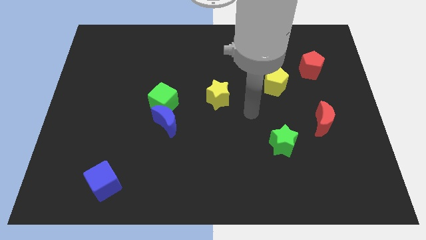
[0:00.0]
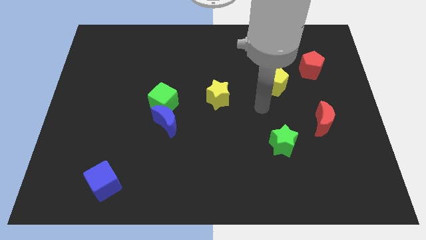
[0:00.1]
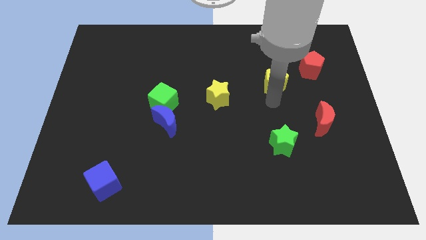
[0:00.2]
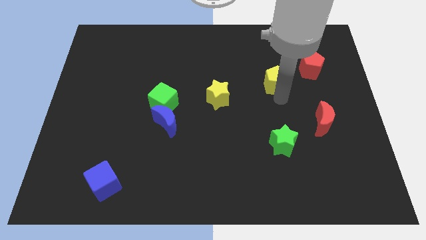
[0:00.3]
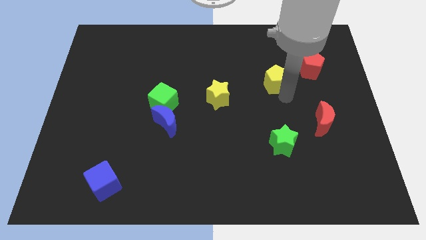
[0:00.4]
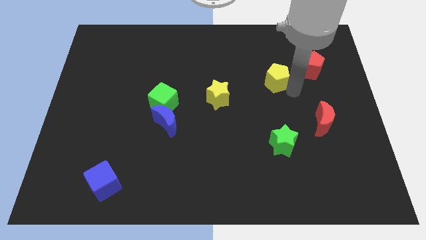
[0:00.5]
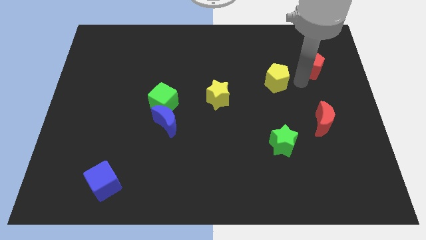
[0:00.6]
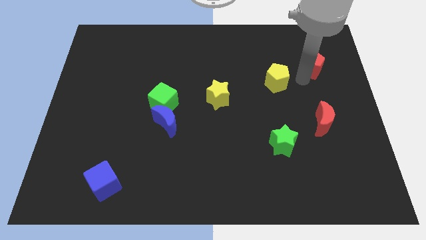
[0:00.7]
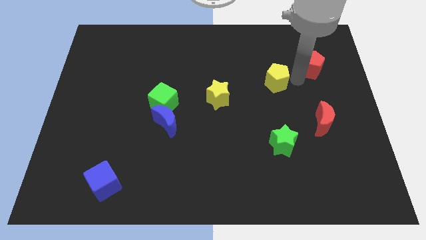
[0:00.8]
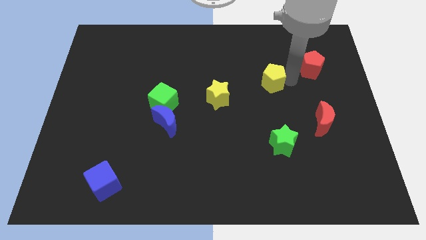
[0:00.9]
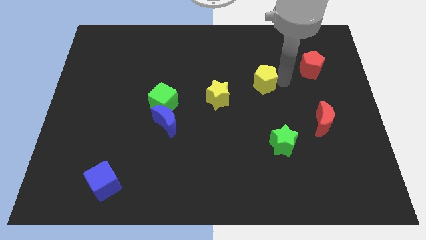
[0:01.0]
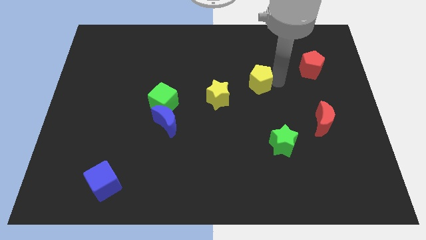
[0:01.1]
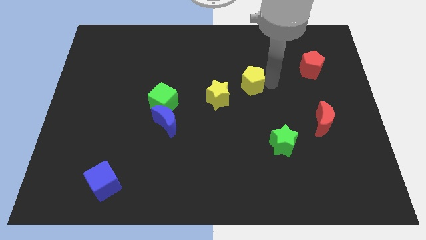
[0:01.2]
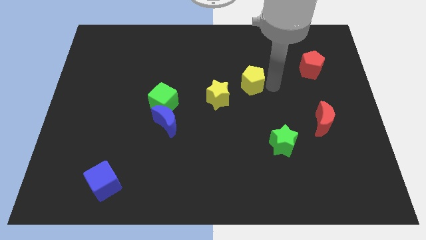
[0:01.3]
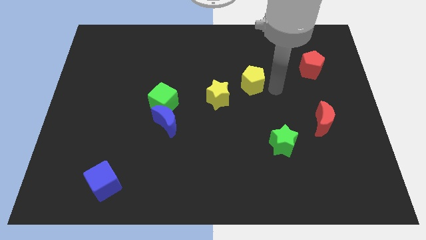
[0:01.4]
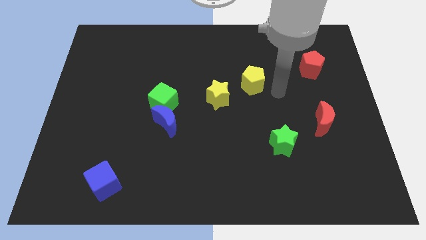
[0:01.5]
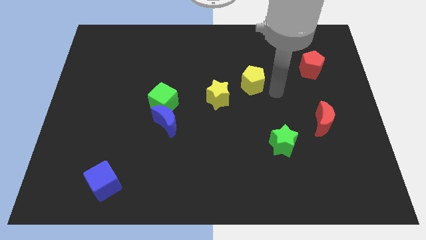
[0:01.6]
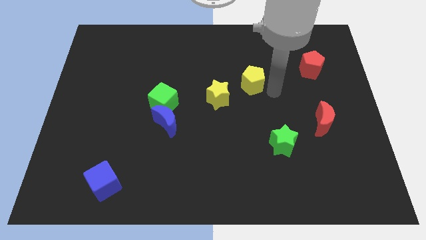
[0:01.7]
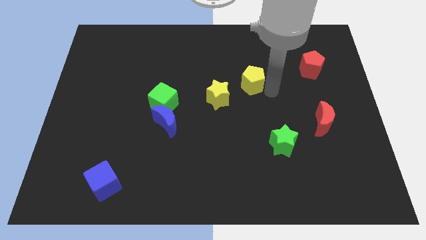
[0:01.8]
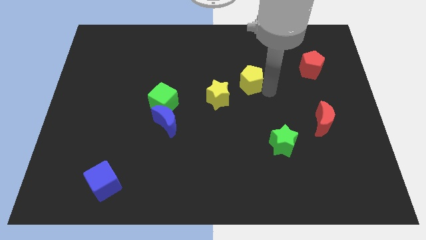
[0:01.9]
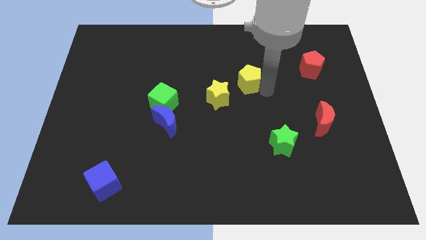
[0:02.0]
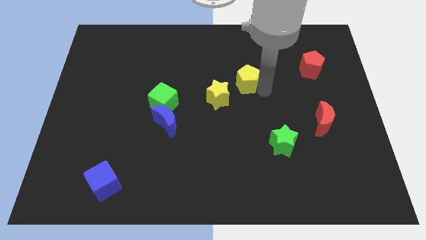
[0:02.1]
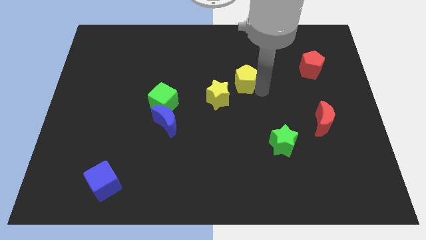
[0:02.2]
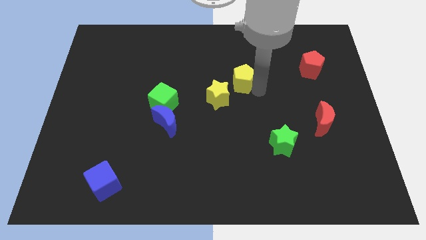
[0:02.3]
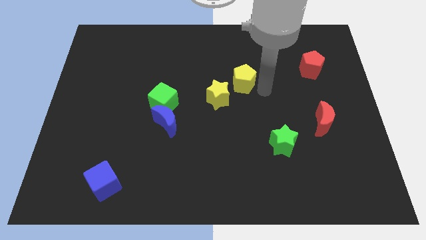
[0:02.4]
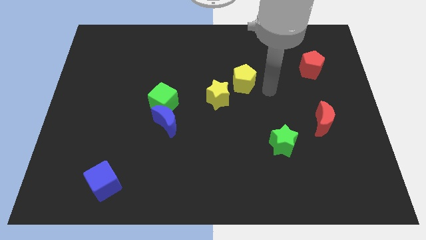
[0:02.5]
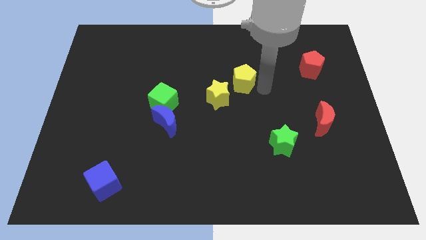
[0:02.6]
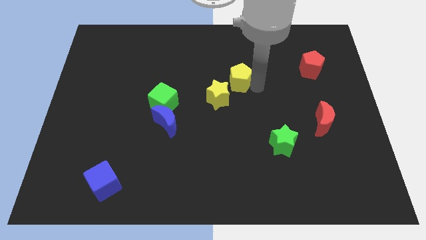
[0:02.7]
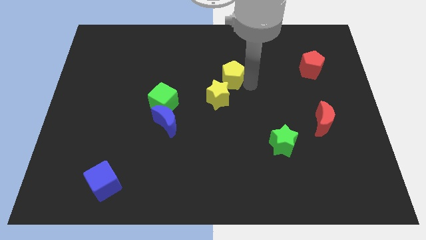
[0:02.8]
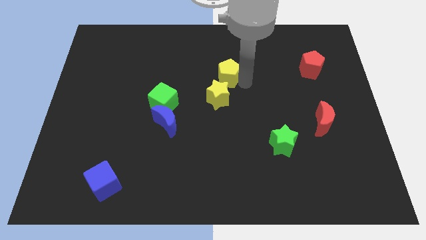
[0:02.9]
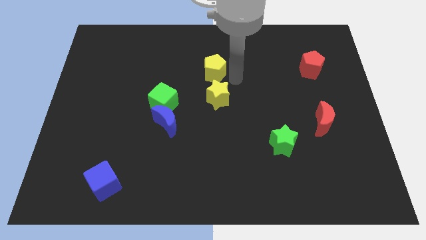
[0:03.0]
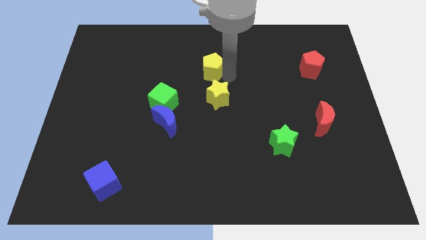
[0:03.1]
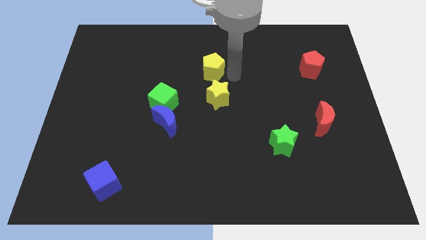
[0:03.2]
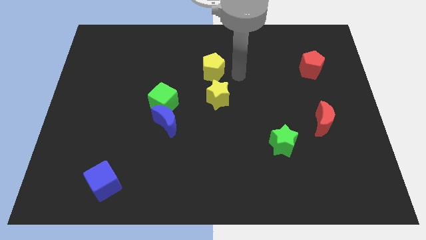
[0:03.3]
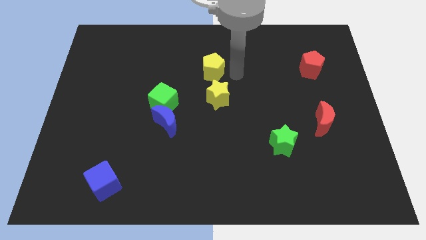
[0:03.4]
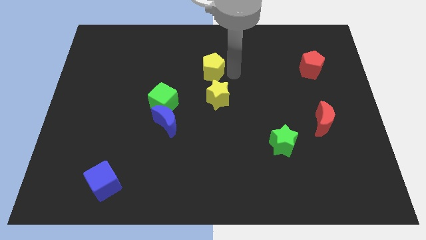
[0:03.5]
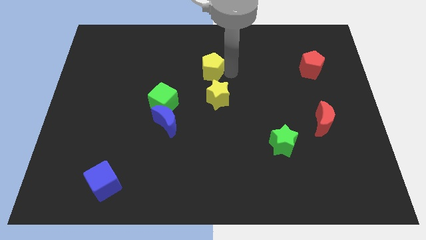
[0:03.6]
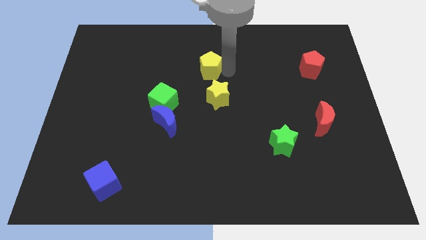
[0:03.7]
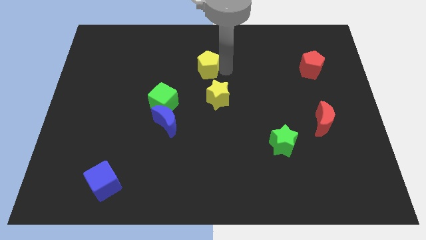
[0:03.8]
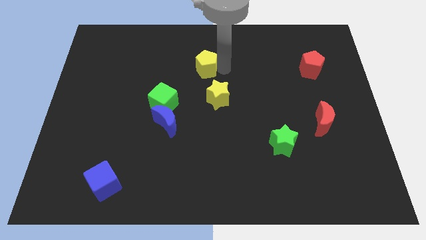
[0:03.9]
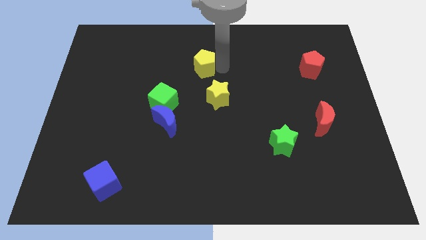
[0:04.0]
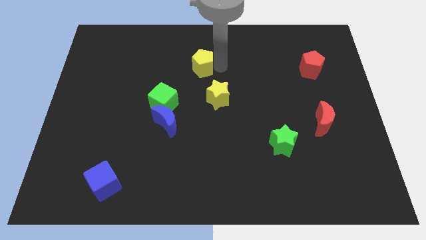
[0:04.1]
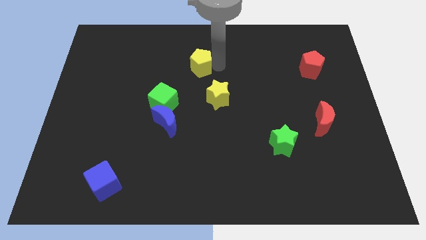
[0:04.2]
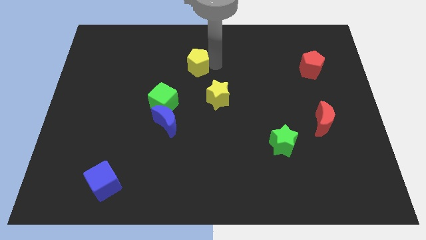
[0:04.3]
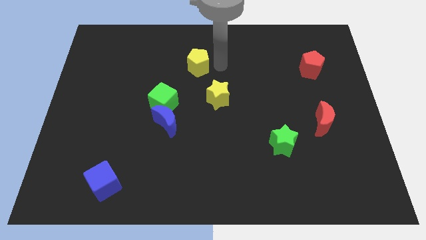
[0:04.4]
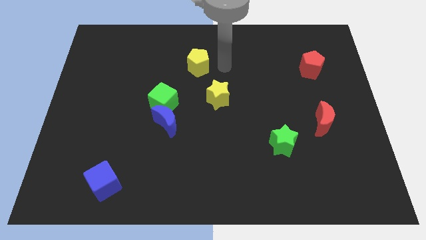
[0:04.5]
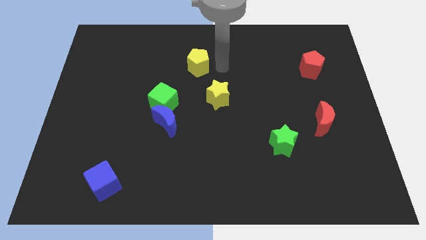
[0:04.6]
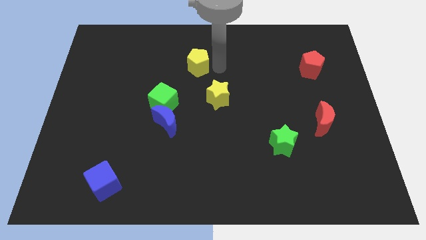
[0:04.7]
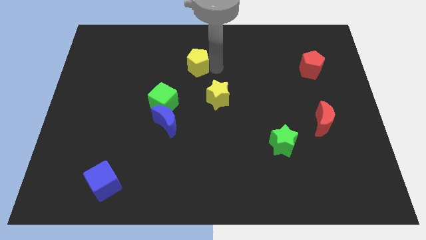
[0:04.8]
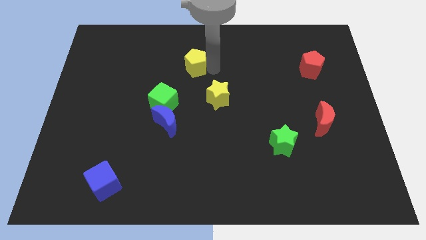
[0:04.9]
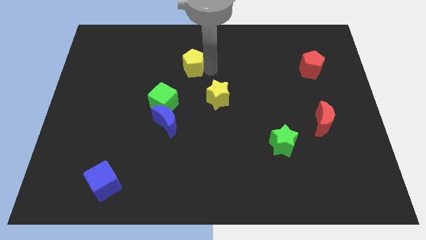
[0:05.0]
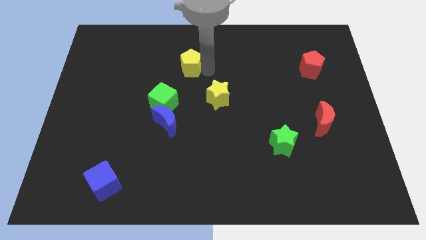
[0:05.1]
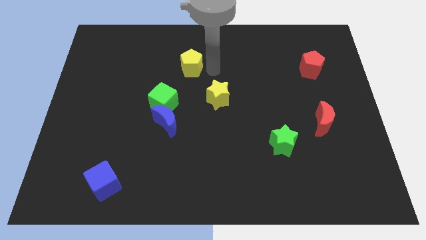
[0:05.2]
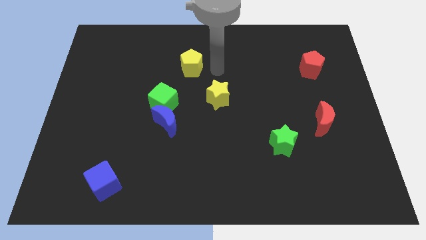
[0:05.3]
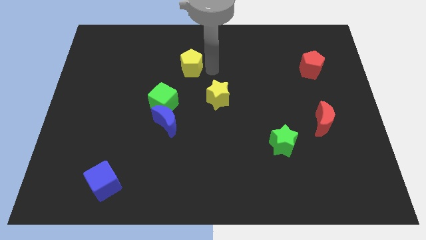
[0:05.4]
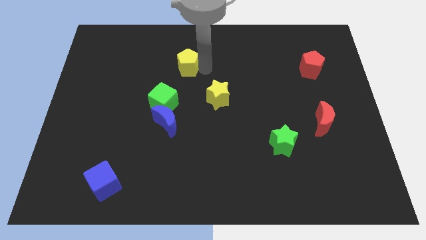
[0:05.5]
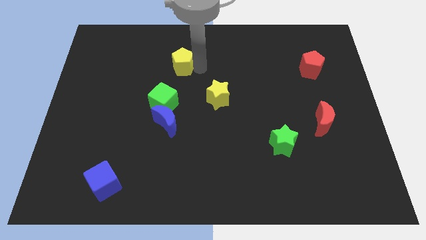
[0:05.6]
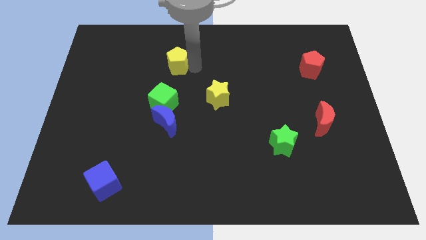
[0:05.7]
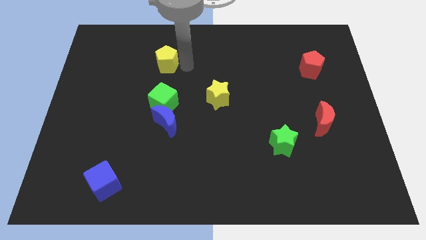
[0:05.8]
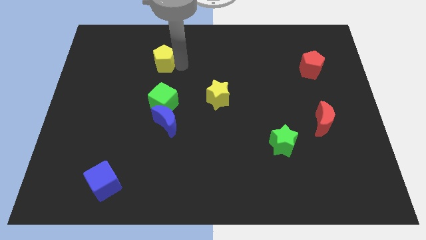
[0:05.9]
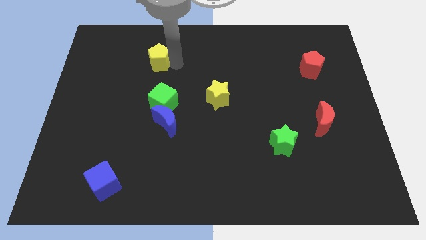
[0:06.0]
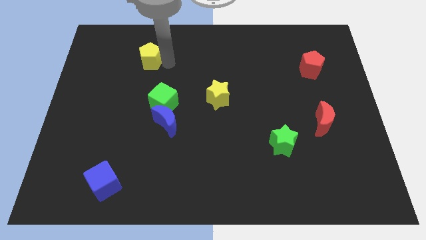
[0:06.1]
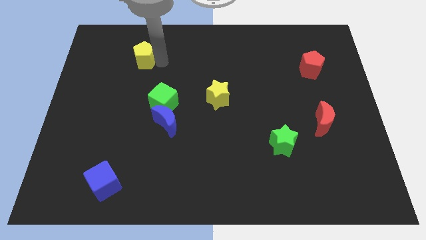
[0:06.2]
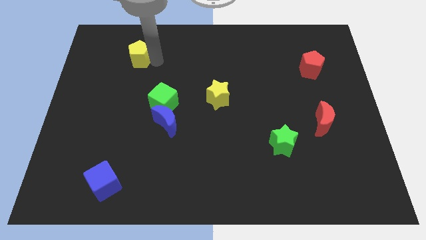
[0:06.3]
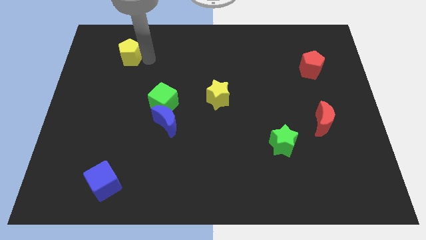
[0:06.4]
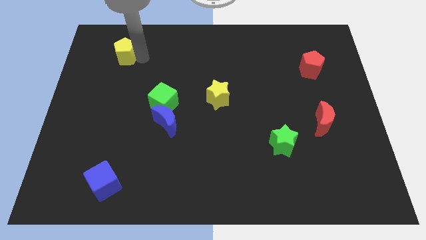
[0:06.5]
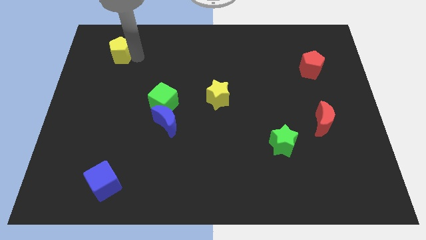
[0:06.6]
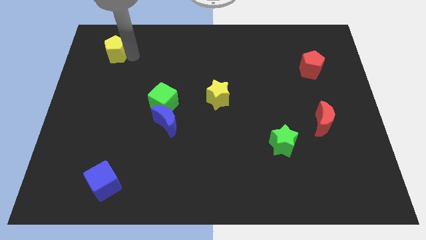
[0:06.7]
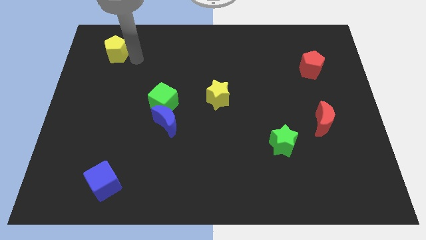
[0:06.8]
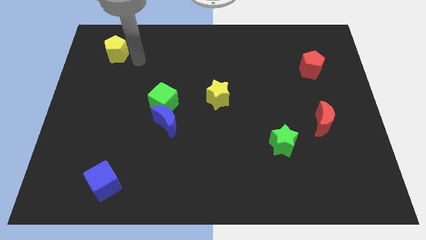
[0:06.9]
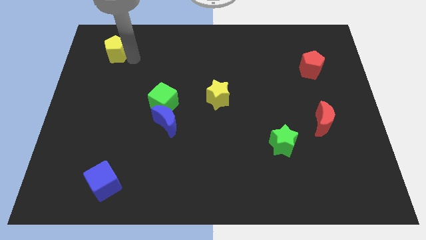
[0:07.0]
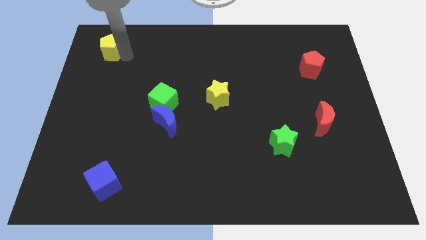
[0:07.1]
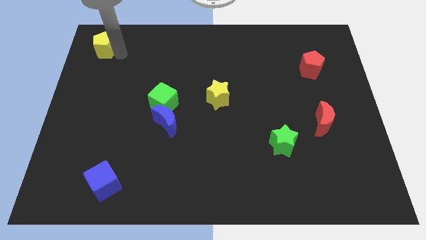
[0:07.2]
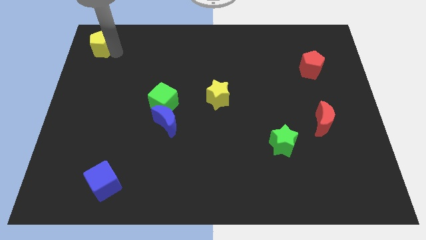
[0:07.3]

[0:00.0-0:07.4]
put the yellow pentagon to the top left

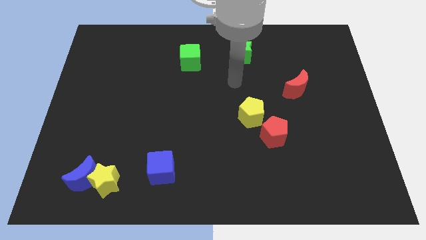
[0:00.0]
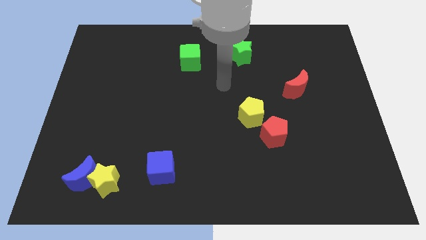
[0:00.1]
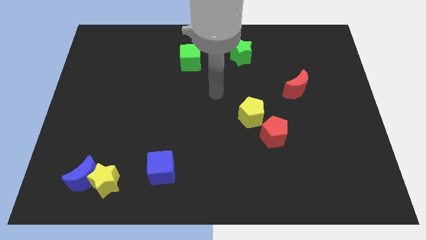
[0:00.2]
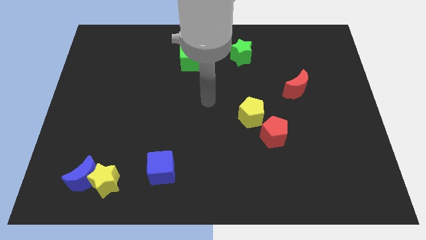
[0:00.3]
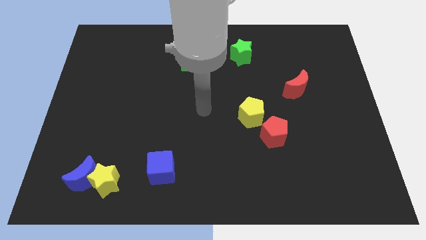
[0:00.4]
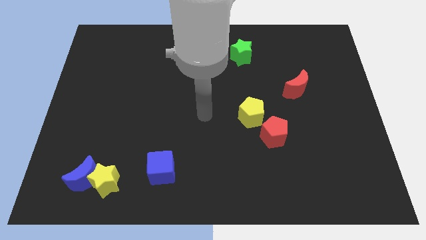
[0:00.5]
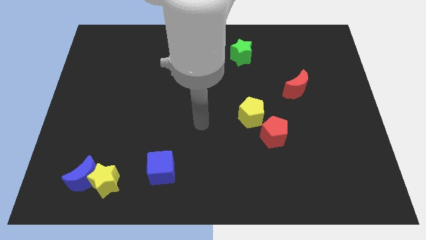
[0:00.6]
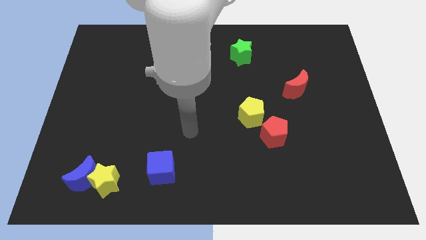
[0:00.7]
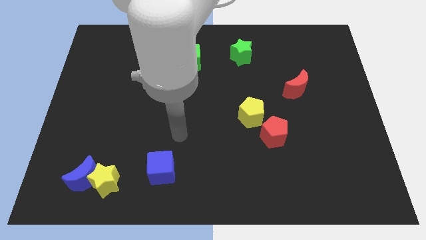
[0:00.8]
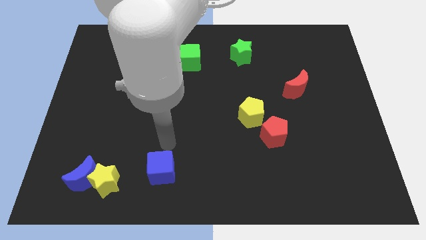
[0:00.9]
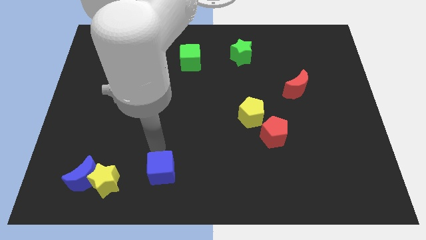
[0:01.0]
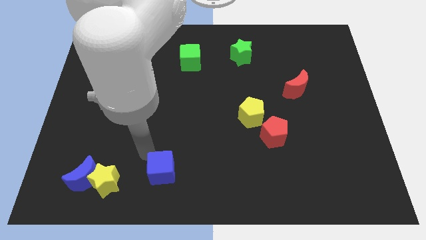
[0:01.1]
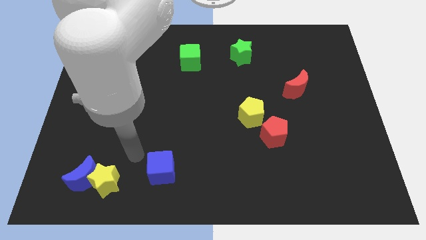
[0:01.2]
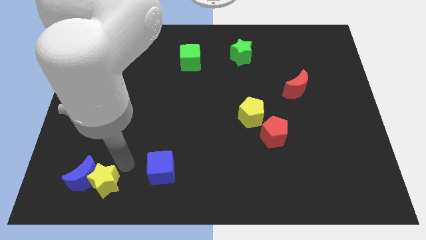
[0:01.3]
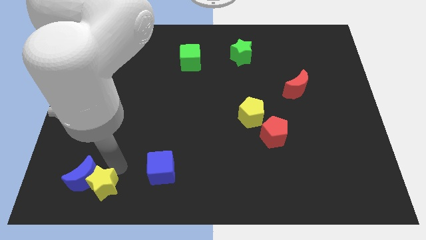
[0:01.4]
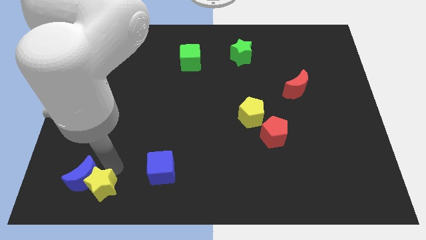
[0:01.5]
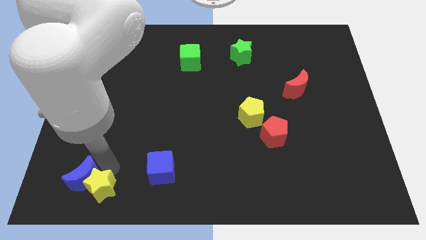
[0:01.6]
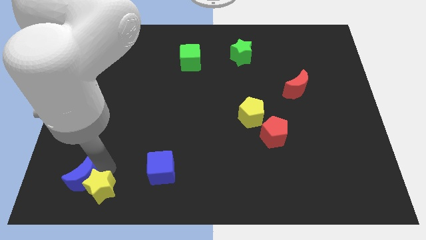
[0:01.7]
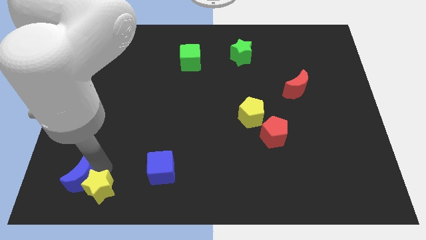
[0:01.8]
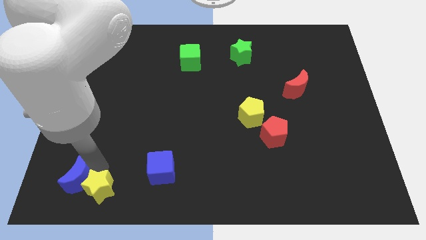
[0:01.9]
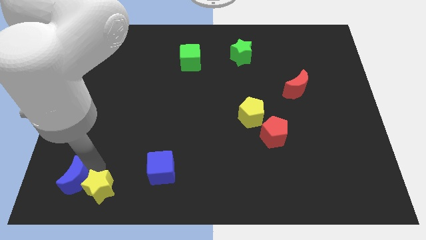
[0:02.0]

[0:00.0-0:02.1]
put the blue moon to the bottom left corner
